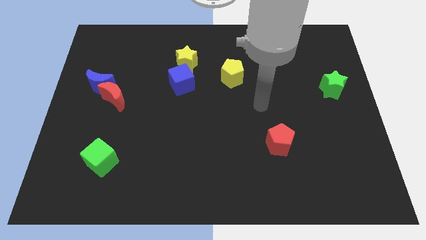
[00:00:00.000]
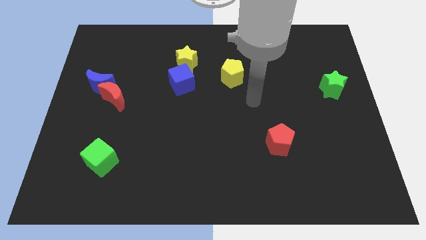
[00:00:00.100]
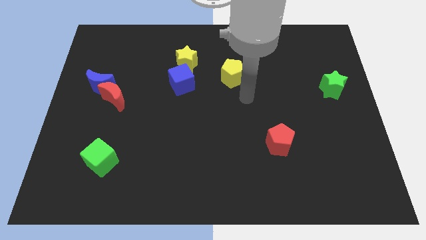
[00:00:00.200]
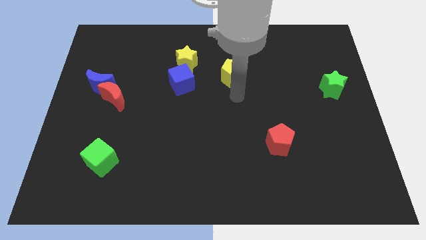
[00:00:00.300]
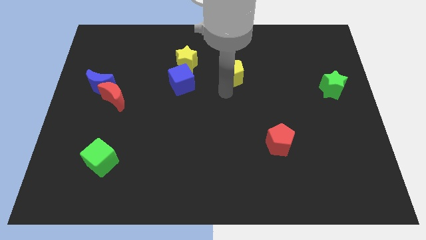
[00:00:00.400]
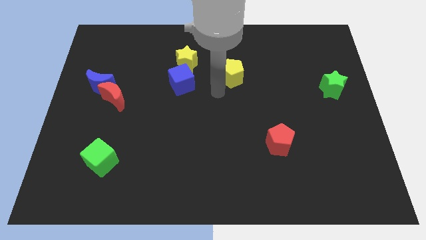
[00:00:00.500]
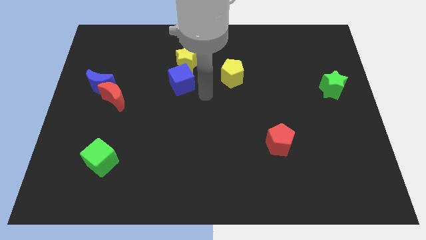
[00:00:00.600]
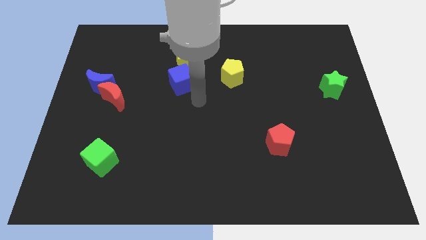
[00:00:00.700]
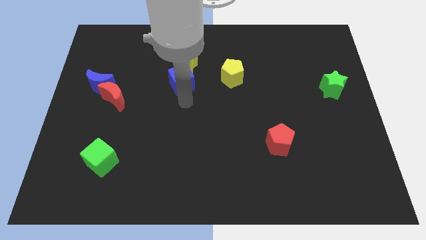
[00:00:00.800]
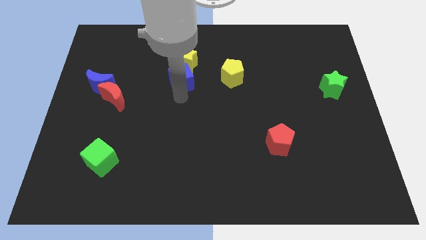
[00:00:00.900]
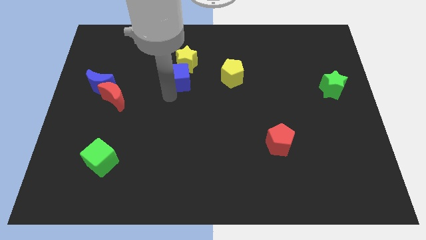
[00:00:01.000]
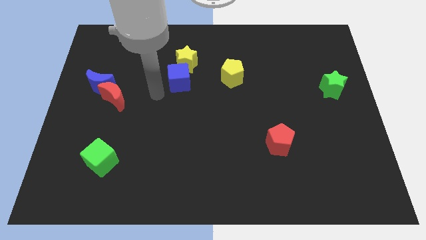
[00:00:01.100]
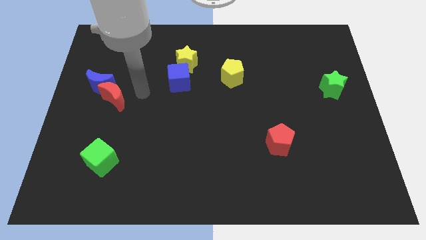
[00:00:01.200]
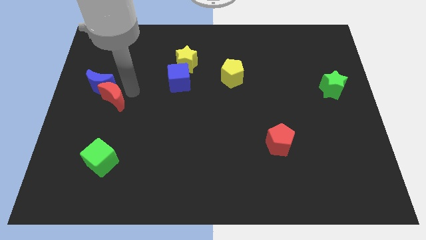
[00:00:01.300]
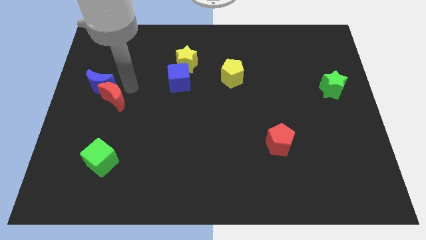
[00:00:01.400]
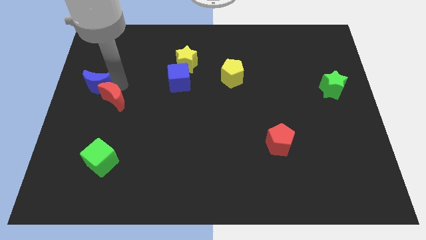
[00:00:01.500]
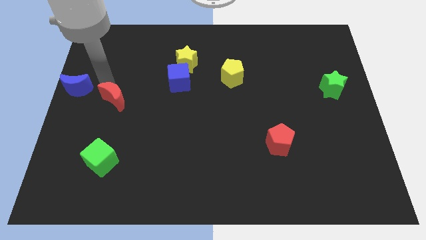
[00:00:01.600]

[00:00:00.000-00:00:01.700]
move the red moon away from the blue moon

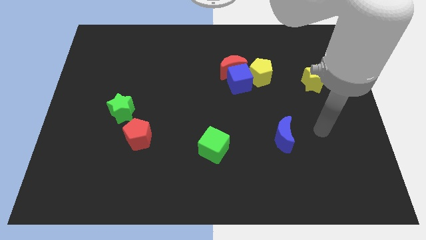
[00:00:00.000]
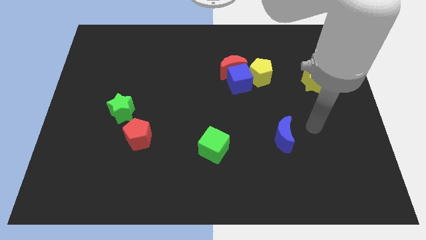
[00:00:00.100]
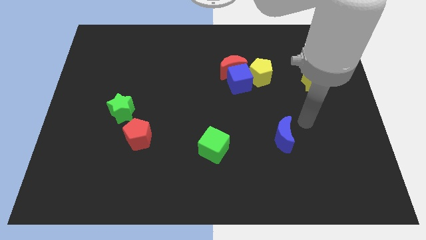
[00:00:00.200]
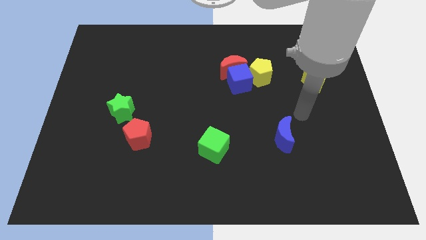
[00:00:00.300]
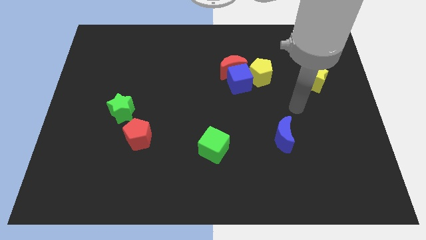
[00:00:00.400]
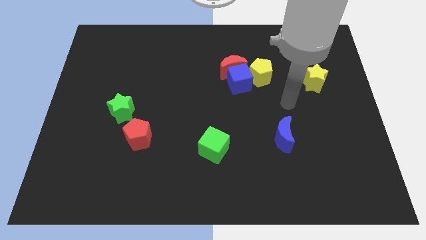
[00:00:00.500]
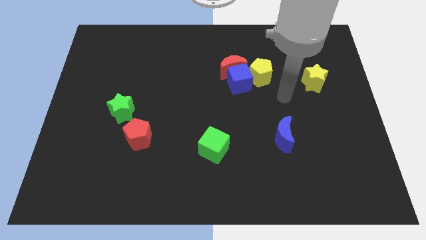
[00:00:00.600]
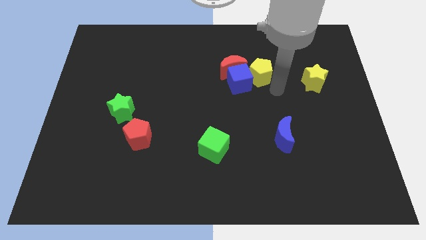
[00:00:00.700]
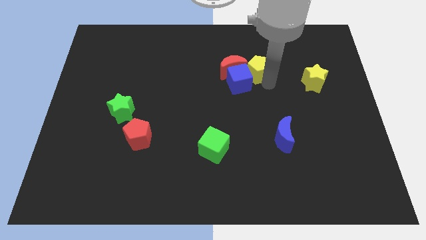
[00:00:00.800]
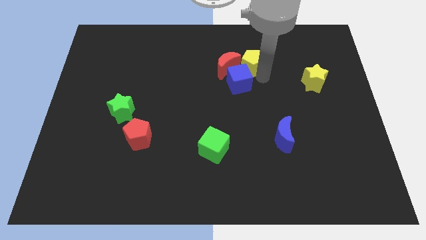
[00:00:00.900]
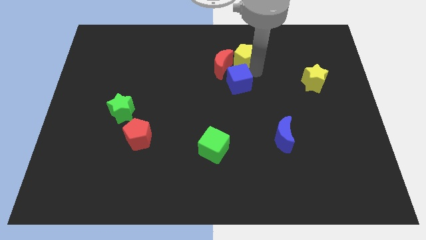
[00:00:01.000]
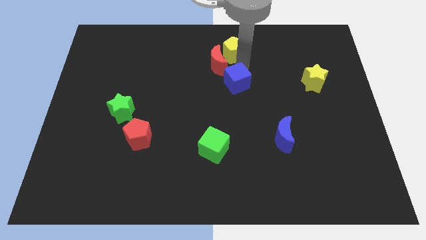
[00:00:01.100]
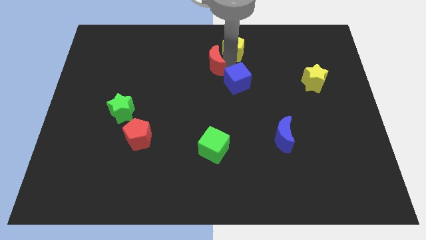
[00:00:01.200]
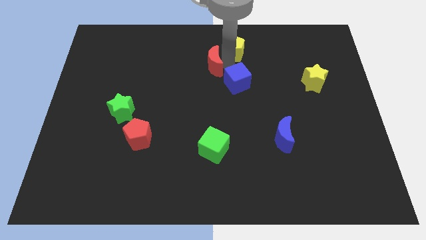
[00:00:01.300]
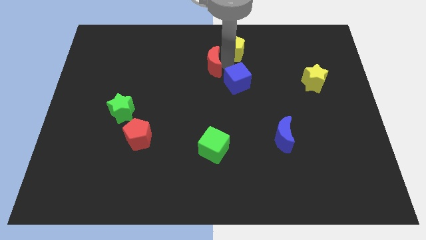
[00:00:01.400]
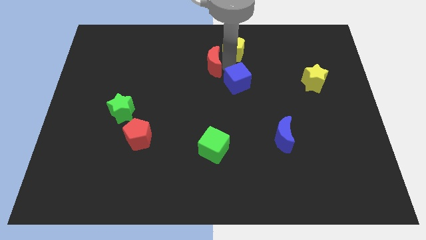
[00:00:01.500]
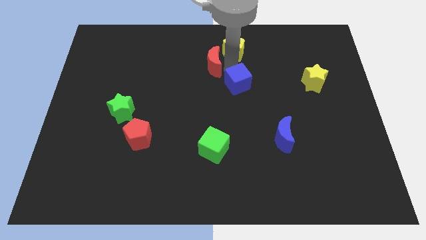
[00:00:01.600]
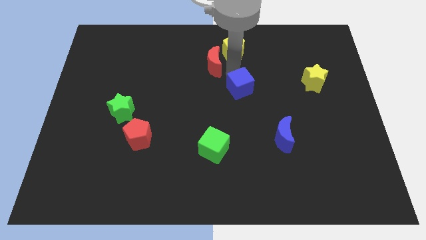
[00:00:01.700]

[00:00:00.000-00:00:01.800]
move the blue cube away from the red moon and yellow pentagon

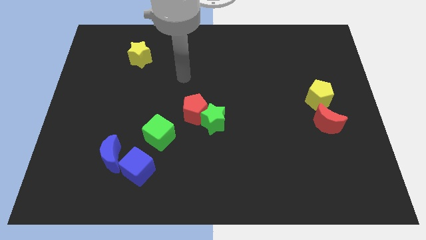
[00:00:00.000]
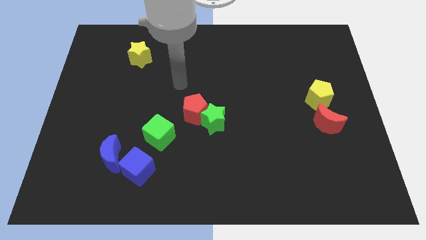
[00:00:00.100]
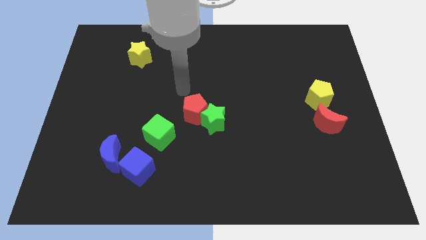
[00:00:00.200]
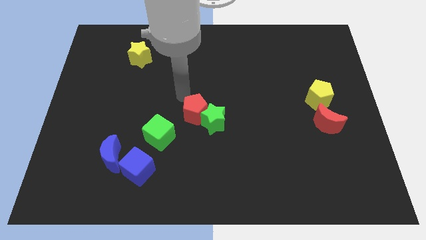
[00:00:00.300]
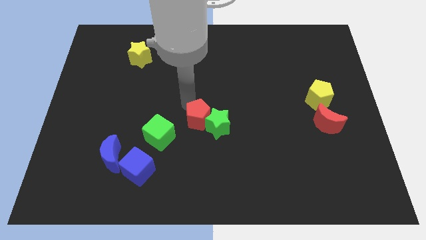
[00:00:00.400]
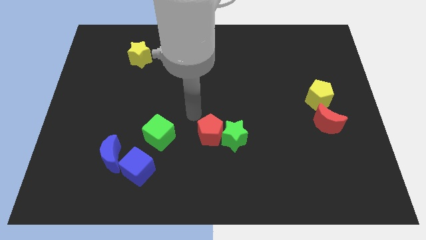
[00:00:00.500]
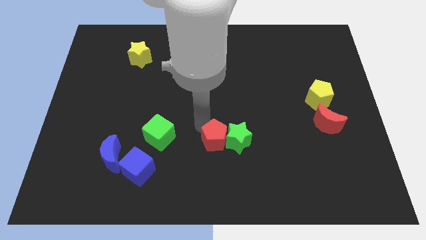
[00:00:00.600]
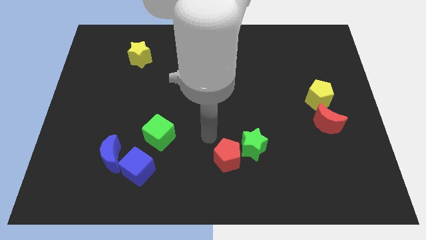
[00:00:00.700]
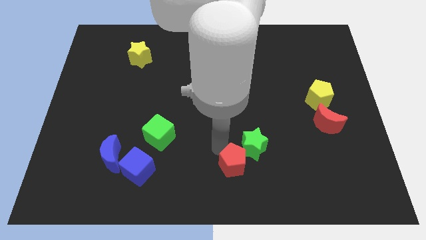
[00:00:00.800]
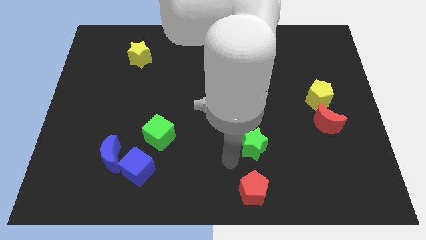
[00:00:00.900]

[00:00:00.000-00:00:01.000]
pull the green star apart from the red pentagon

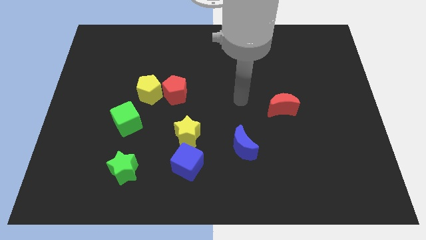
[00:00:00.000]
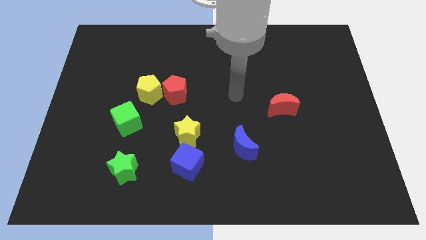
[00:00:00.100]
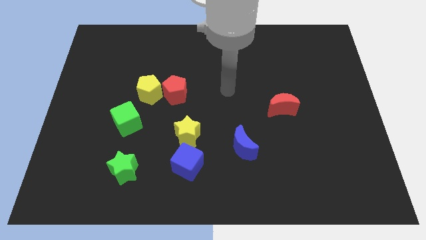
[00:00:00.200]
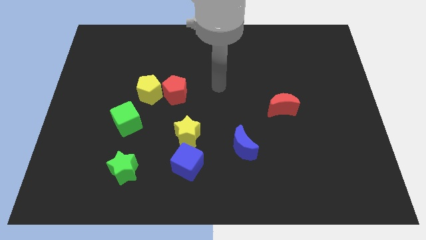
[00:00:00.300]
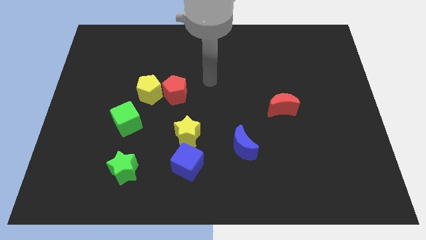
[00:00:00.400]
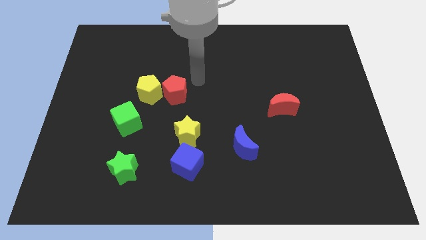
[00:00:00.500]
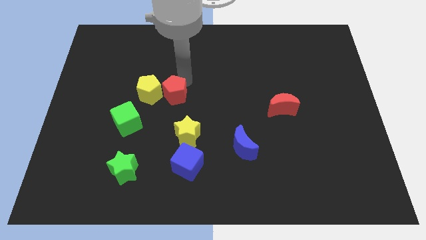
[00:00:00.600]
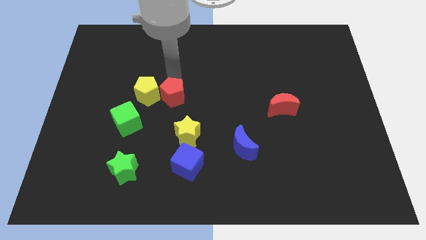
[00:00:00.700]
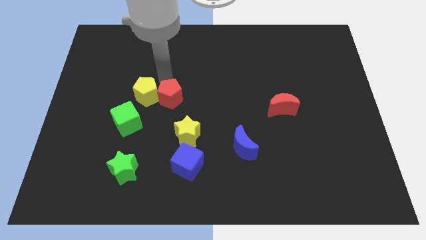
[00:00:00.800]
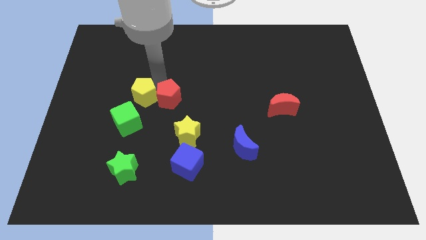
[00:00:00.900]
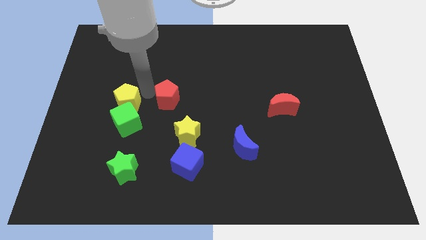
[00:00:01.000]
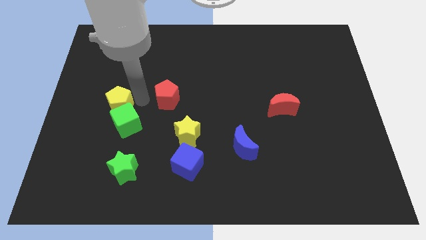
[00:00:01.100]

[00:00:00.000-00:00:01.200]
pull the red pentagon apart from the yellow pentagon

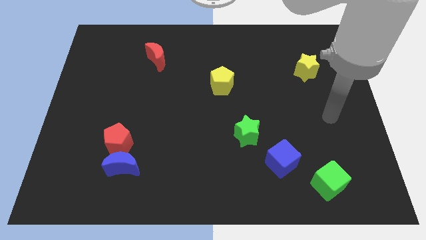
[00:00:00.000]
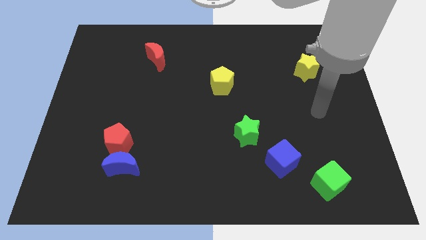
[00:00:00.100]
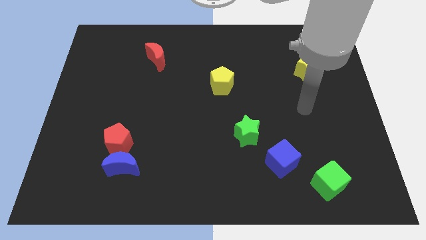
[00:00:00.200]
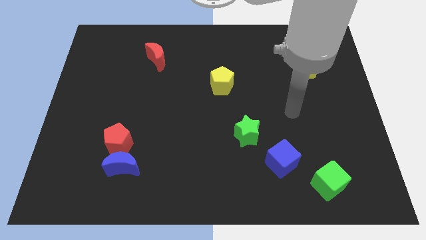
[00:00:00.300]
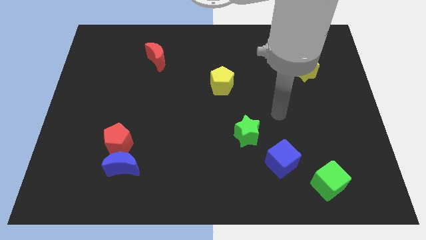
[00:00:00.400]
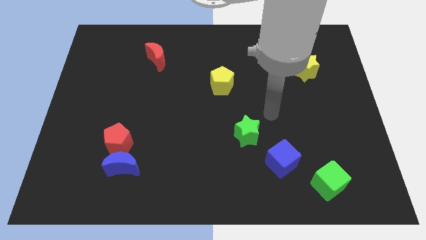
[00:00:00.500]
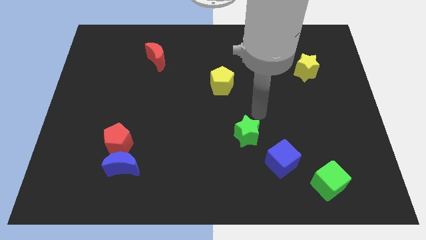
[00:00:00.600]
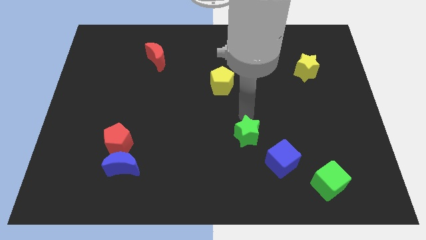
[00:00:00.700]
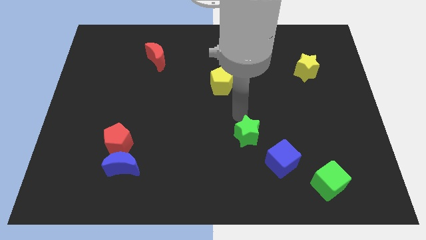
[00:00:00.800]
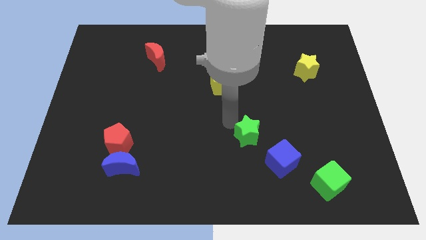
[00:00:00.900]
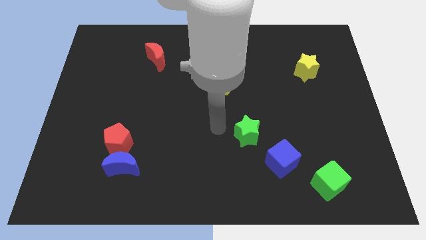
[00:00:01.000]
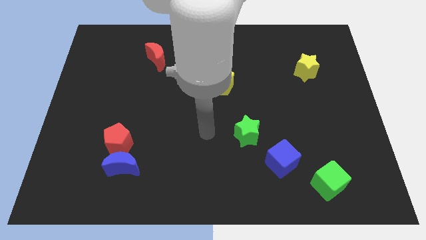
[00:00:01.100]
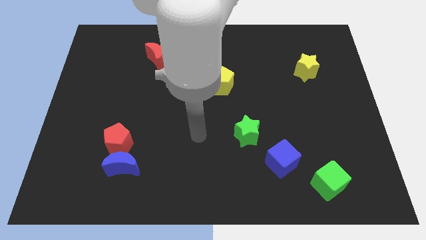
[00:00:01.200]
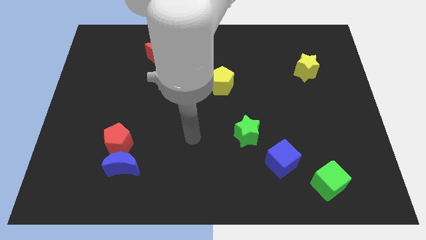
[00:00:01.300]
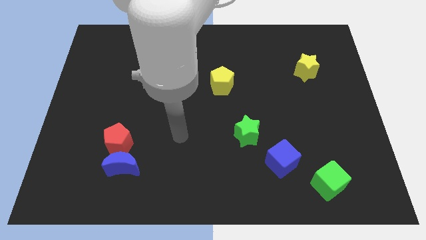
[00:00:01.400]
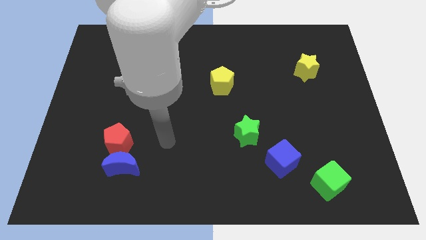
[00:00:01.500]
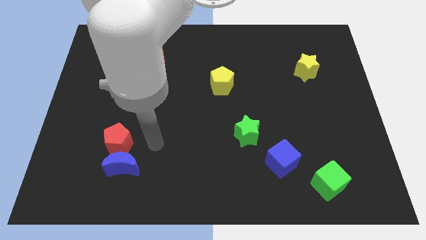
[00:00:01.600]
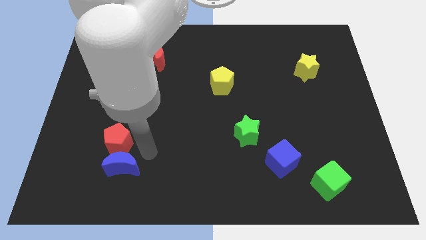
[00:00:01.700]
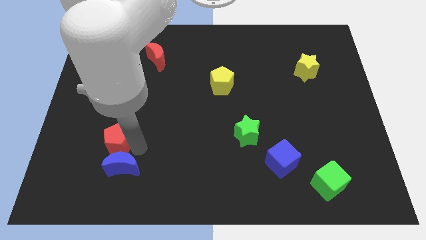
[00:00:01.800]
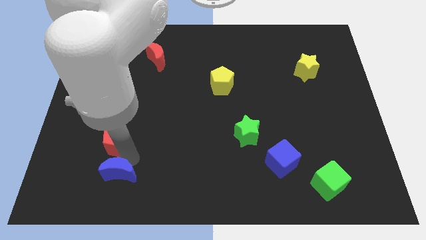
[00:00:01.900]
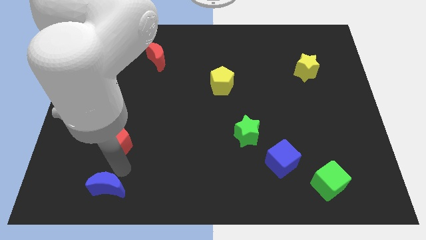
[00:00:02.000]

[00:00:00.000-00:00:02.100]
pull the red pentagon apart from the blue moon

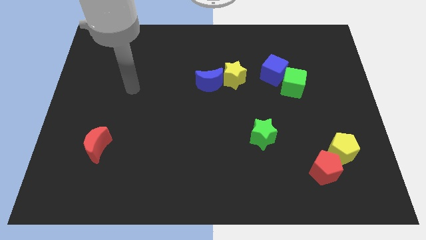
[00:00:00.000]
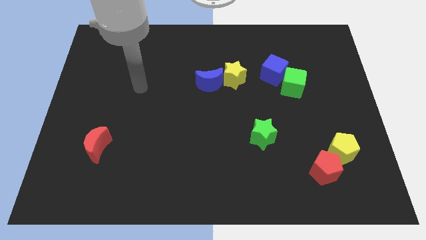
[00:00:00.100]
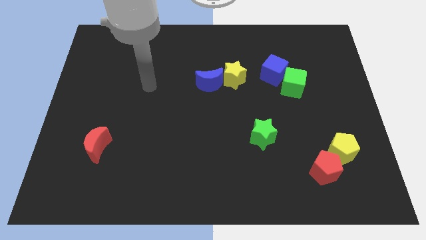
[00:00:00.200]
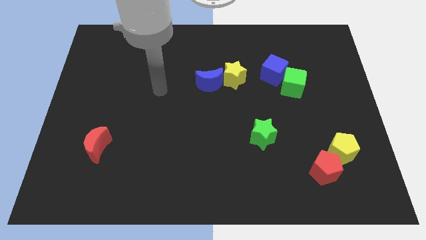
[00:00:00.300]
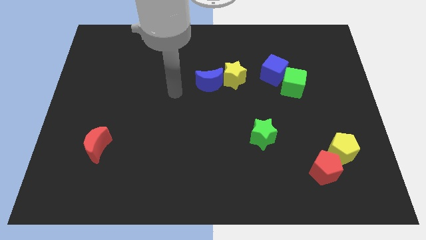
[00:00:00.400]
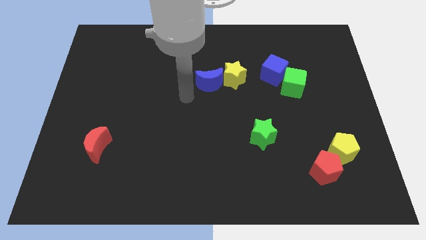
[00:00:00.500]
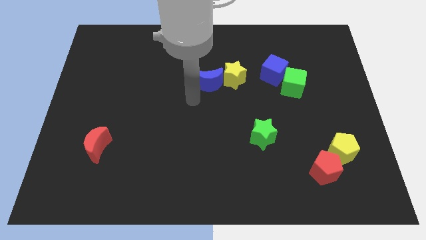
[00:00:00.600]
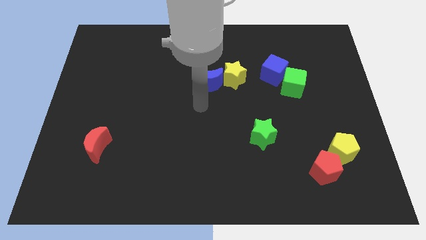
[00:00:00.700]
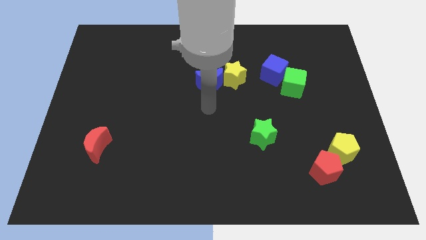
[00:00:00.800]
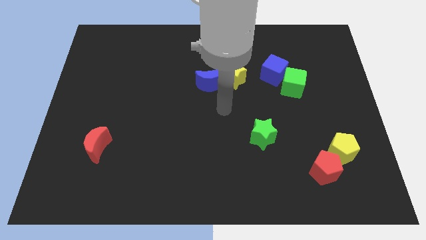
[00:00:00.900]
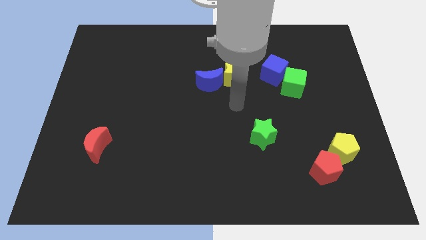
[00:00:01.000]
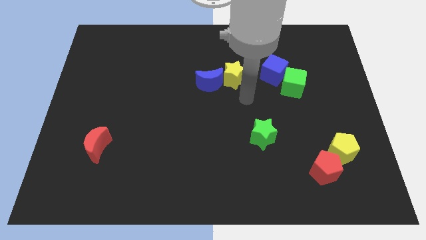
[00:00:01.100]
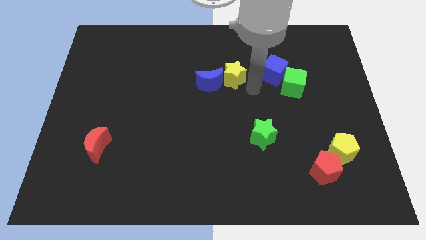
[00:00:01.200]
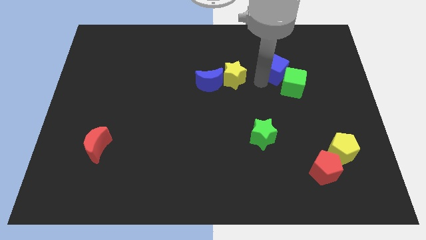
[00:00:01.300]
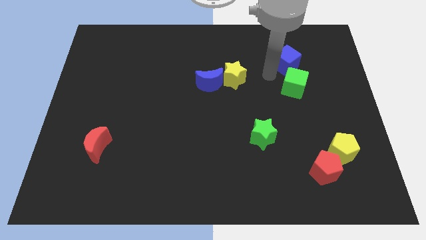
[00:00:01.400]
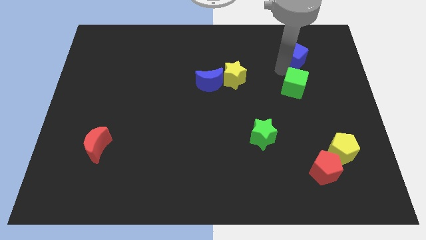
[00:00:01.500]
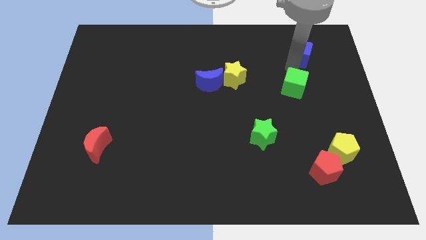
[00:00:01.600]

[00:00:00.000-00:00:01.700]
move the green cube away from the blue cube
